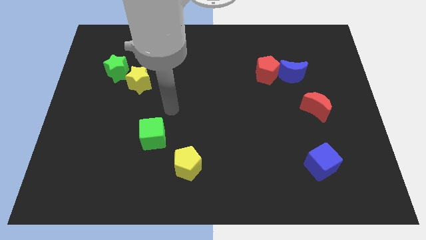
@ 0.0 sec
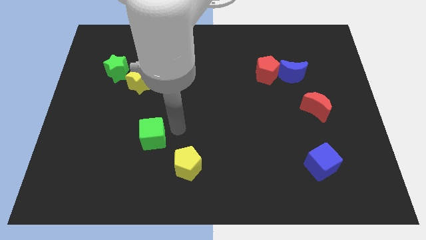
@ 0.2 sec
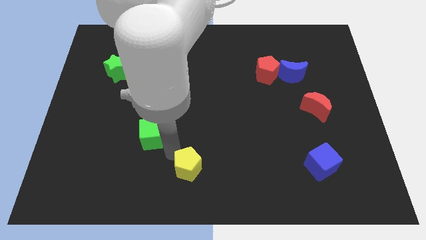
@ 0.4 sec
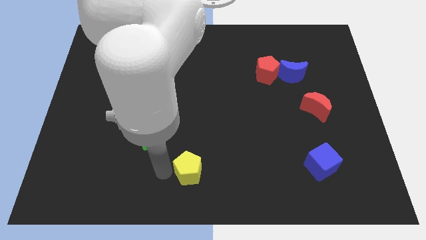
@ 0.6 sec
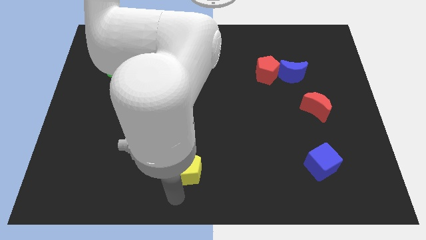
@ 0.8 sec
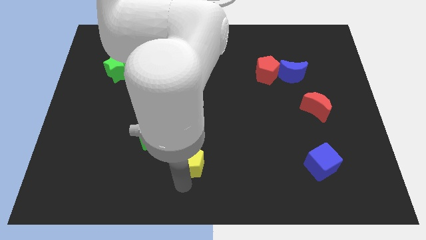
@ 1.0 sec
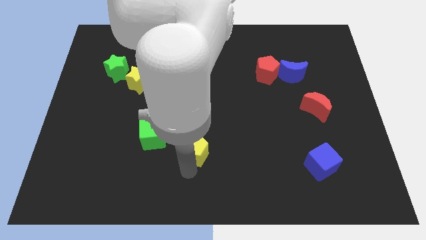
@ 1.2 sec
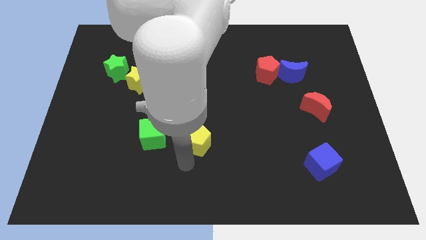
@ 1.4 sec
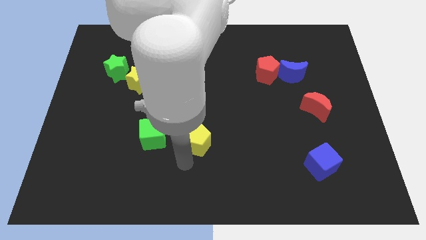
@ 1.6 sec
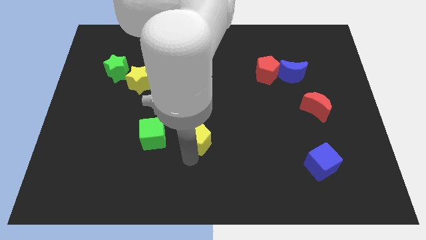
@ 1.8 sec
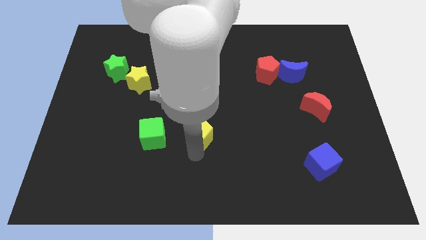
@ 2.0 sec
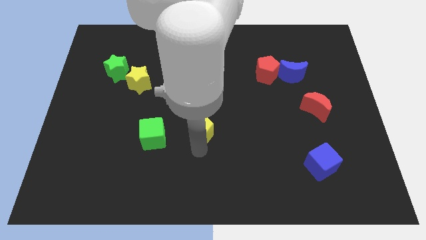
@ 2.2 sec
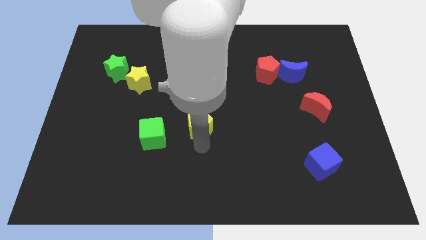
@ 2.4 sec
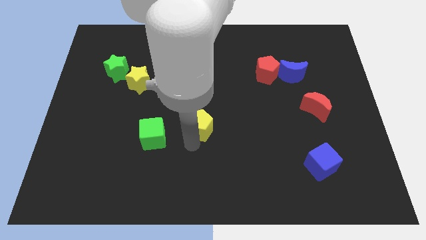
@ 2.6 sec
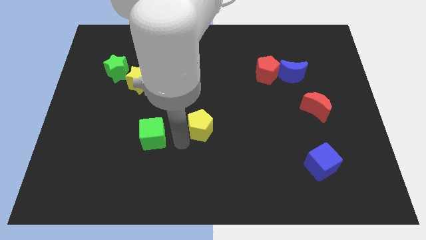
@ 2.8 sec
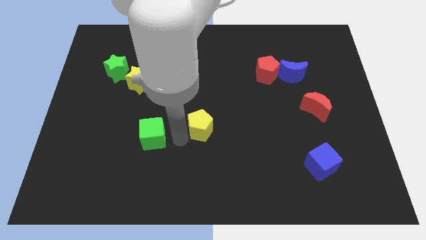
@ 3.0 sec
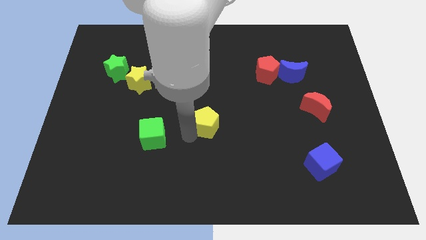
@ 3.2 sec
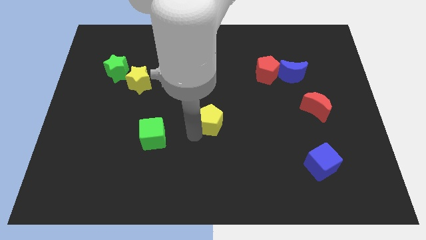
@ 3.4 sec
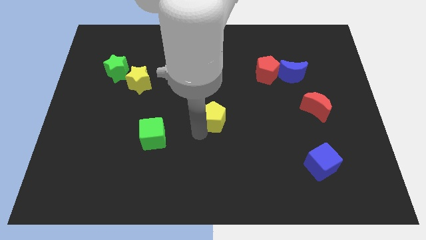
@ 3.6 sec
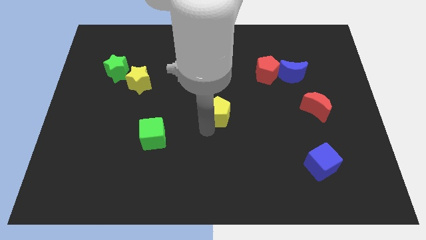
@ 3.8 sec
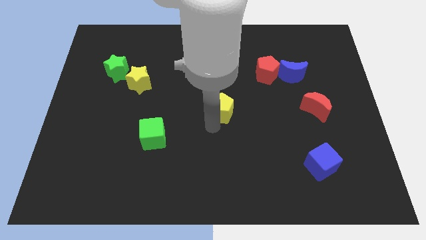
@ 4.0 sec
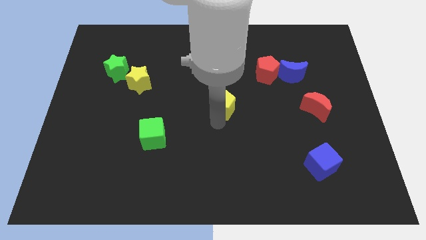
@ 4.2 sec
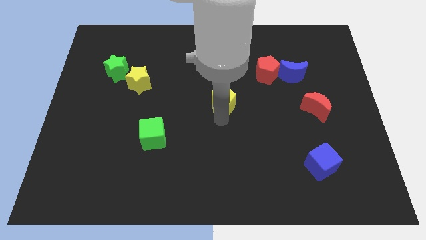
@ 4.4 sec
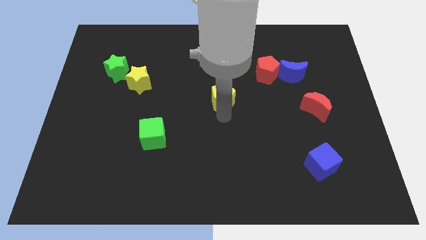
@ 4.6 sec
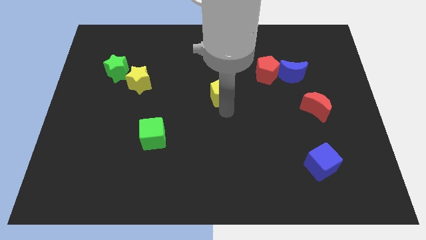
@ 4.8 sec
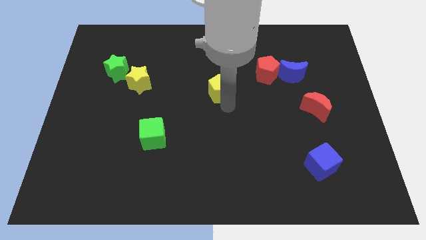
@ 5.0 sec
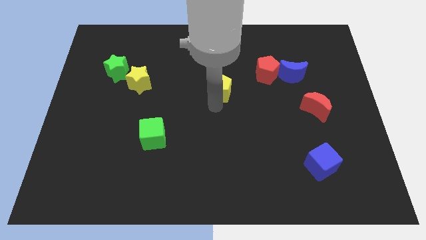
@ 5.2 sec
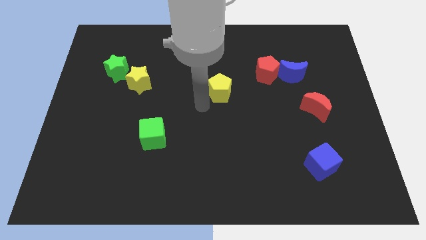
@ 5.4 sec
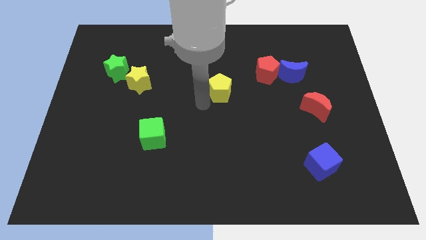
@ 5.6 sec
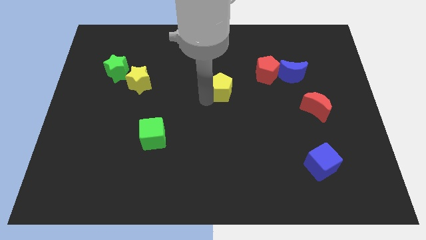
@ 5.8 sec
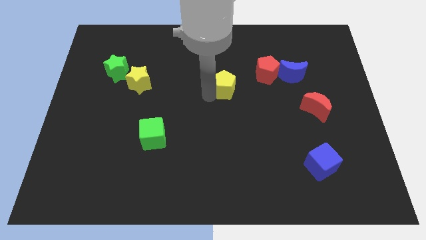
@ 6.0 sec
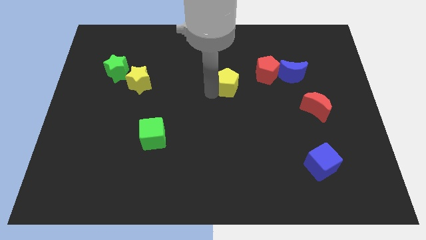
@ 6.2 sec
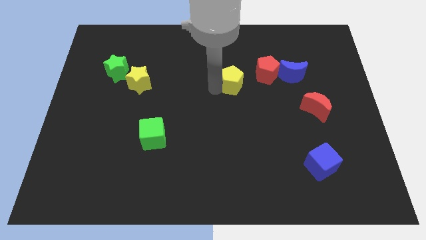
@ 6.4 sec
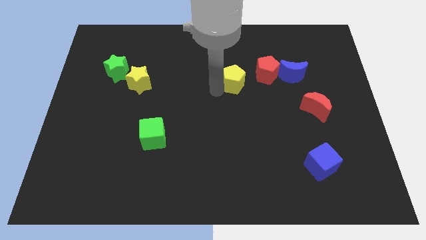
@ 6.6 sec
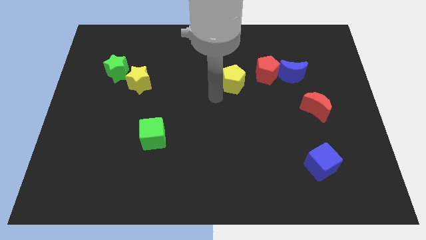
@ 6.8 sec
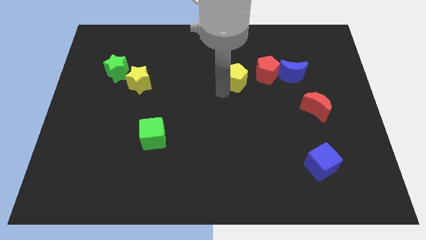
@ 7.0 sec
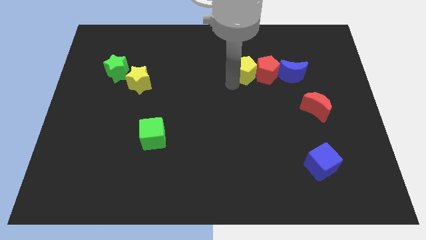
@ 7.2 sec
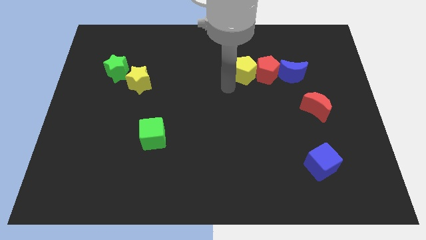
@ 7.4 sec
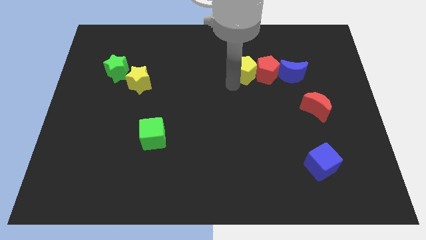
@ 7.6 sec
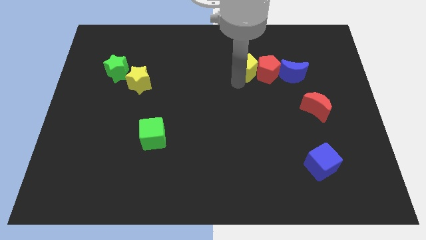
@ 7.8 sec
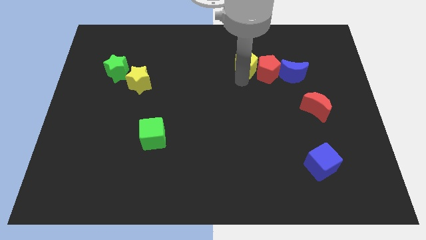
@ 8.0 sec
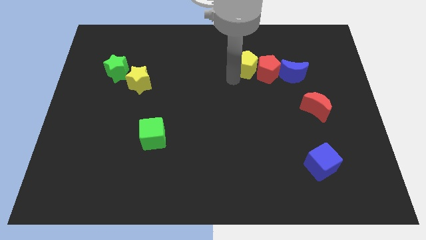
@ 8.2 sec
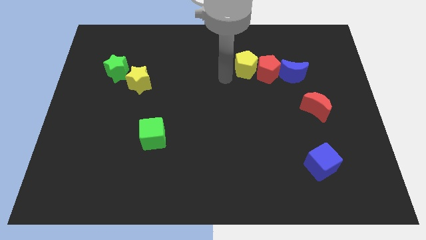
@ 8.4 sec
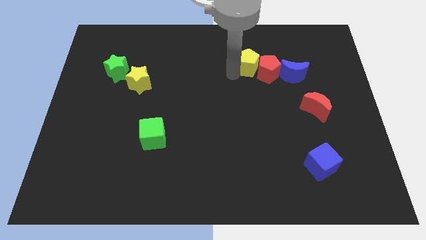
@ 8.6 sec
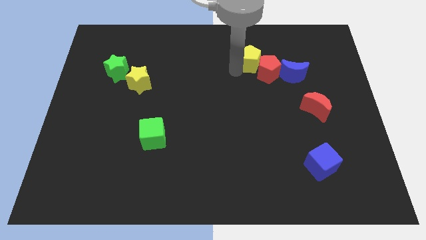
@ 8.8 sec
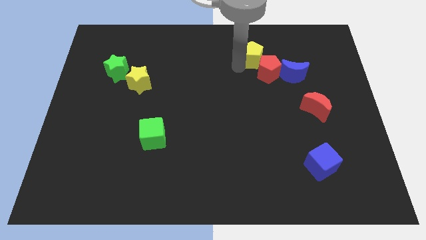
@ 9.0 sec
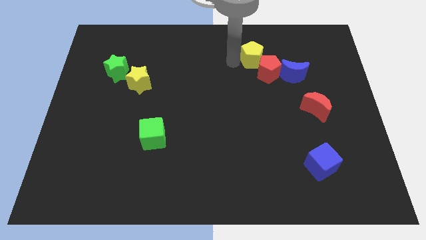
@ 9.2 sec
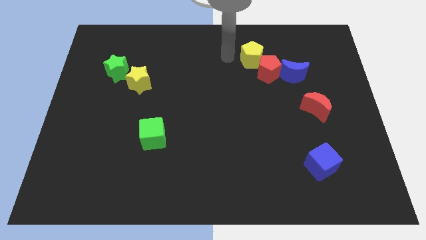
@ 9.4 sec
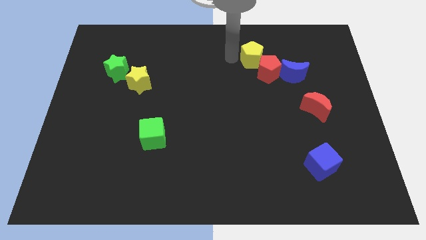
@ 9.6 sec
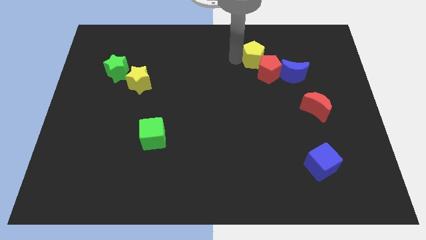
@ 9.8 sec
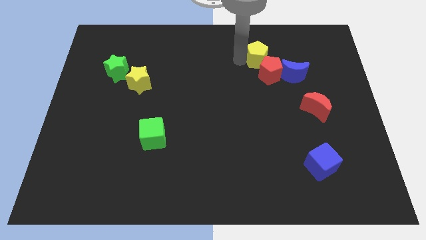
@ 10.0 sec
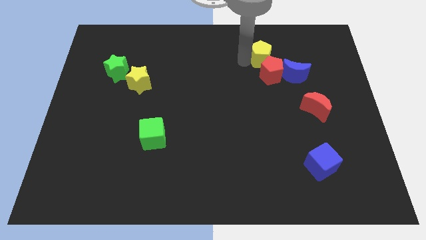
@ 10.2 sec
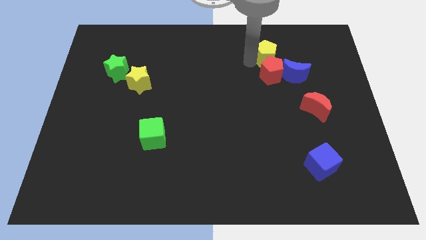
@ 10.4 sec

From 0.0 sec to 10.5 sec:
push the yellow pentagon diagonally up and to the right of the red pentagon

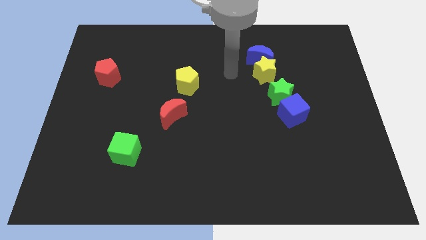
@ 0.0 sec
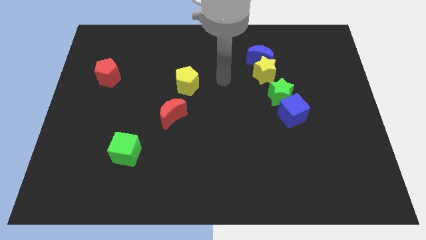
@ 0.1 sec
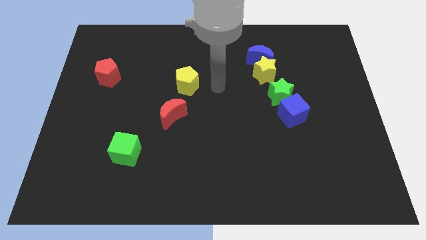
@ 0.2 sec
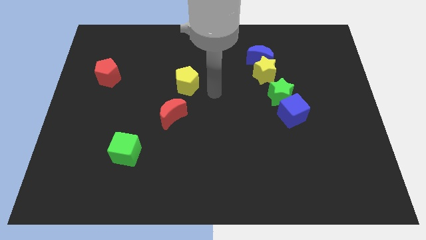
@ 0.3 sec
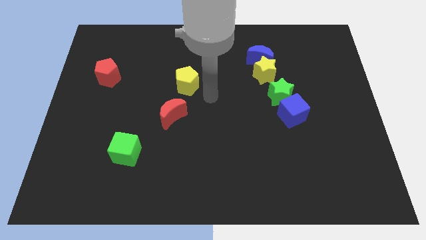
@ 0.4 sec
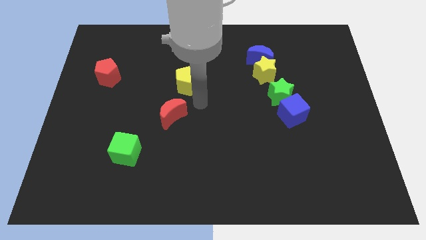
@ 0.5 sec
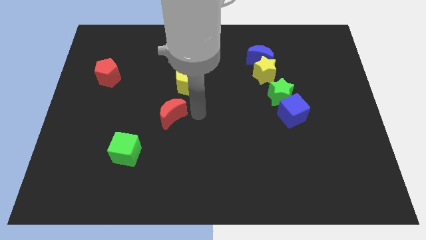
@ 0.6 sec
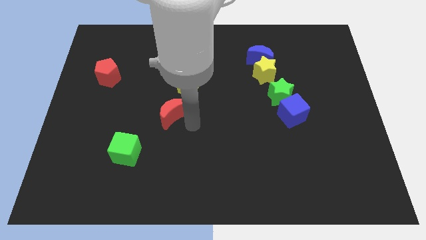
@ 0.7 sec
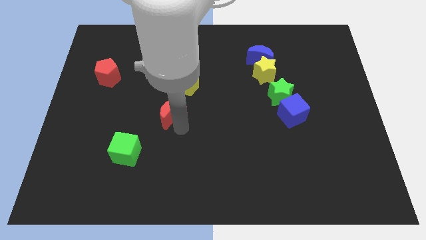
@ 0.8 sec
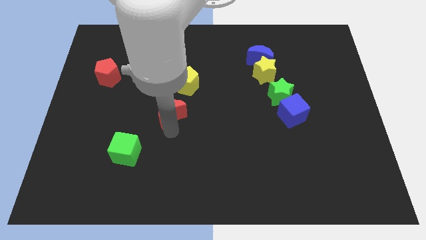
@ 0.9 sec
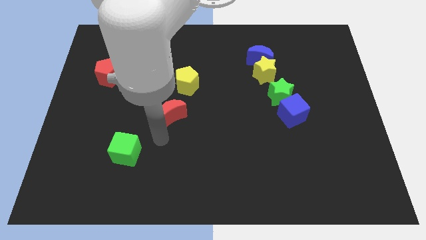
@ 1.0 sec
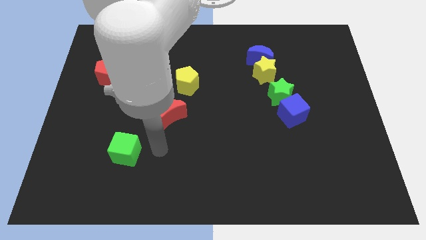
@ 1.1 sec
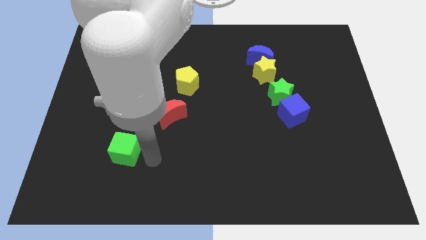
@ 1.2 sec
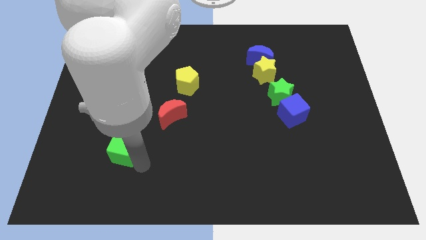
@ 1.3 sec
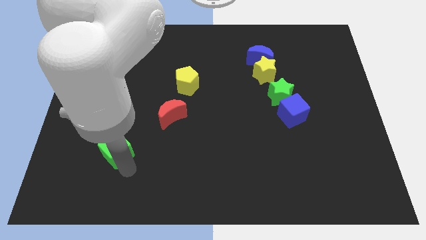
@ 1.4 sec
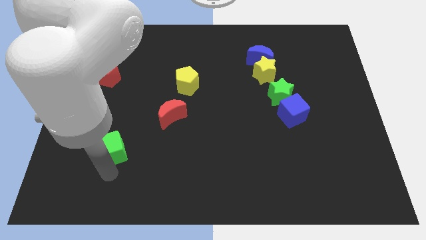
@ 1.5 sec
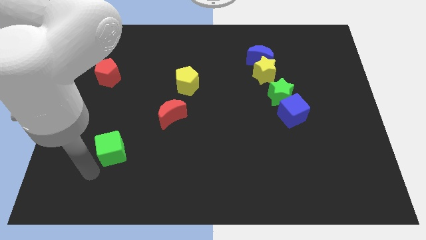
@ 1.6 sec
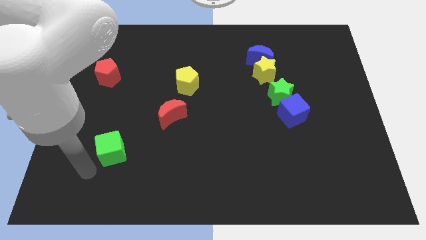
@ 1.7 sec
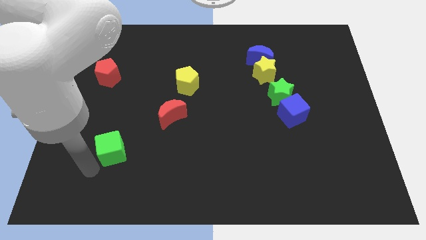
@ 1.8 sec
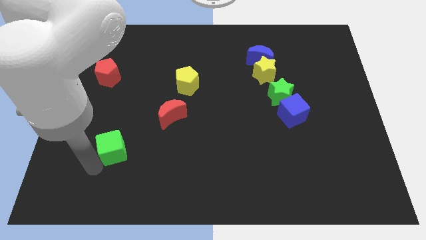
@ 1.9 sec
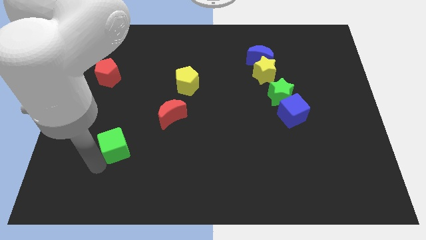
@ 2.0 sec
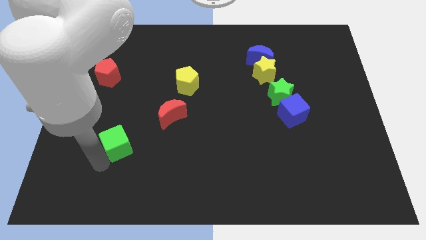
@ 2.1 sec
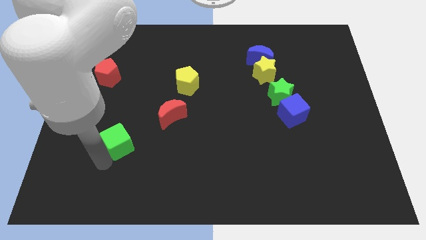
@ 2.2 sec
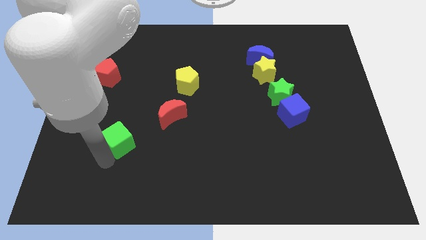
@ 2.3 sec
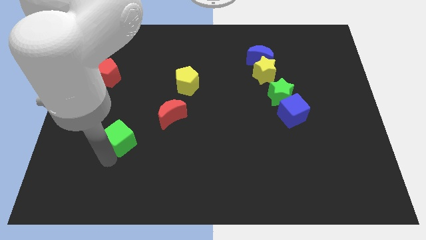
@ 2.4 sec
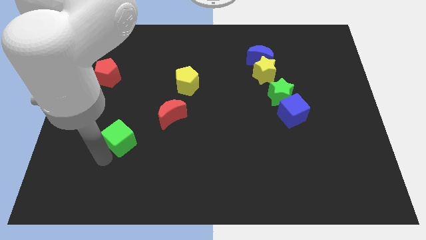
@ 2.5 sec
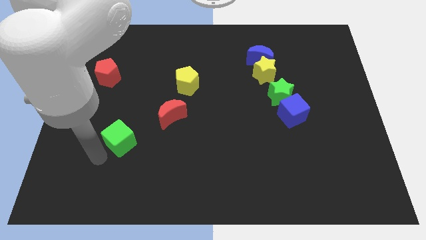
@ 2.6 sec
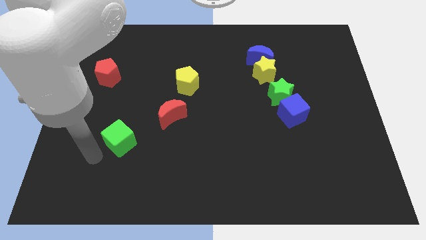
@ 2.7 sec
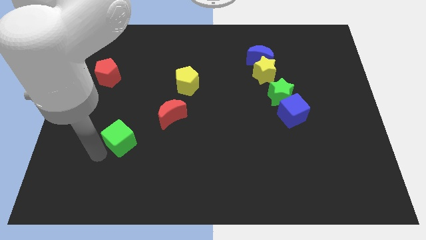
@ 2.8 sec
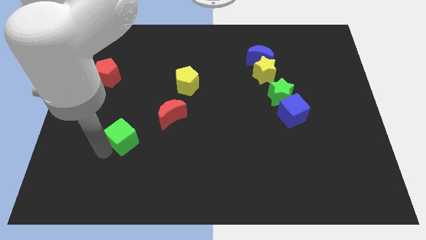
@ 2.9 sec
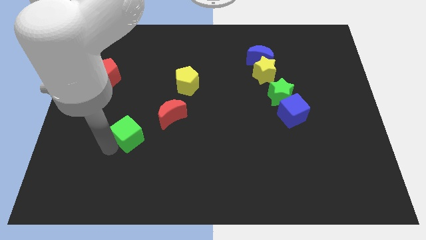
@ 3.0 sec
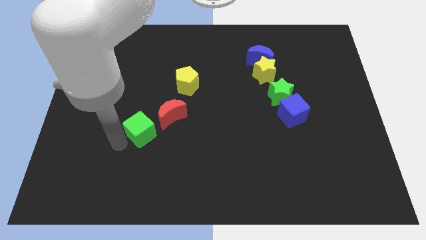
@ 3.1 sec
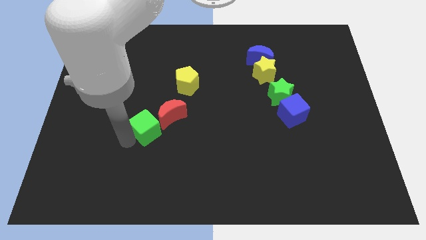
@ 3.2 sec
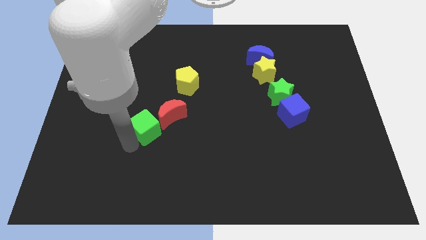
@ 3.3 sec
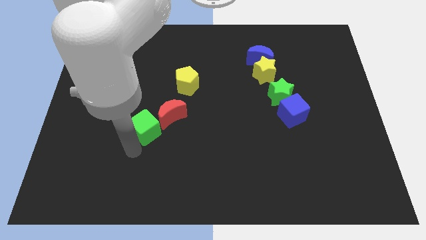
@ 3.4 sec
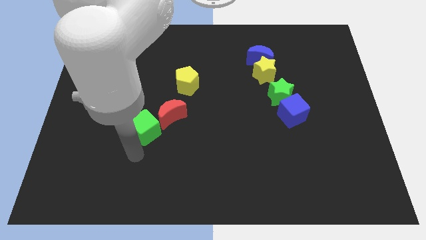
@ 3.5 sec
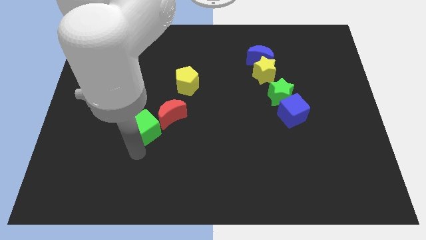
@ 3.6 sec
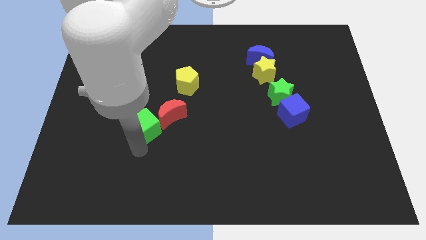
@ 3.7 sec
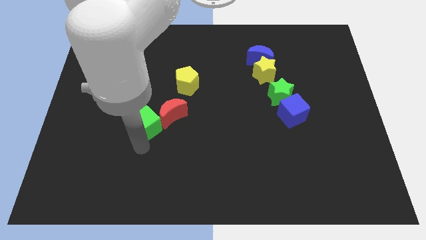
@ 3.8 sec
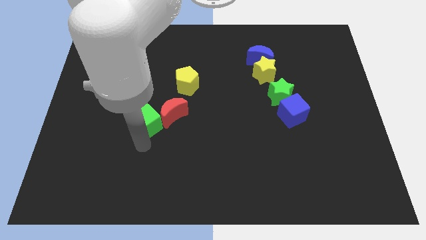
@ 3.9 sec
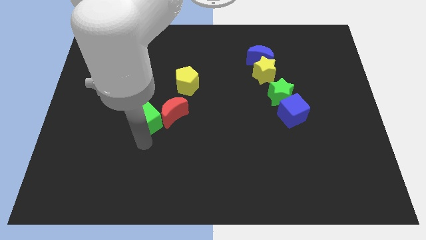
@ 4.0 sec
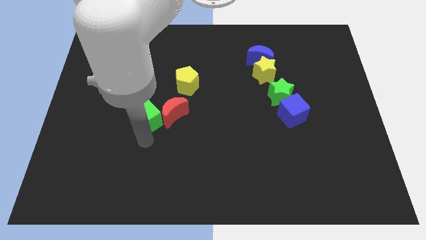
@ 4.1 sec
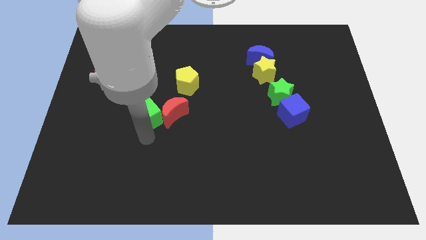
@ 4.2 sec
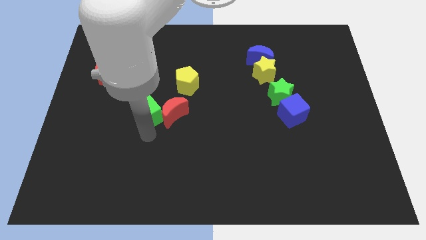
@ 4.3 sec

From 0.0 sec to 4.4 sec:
push the green cube to the bottom left of the yellow pentagon
